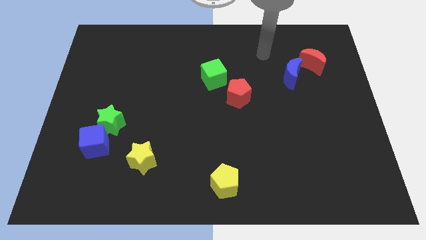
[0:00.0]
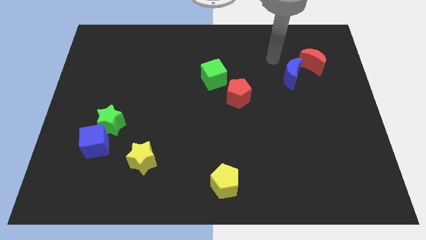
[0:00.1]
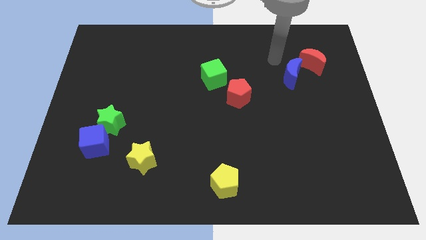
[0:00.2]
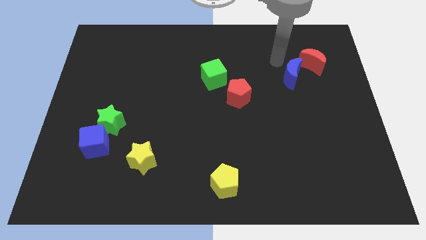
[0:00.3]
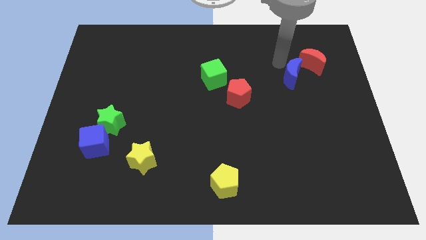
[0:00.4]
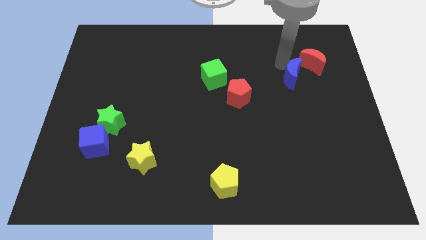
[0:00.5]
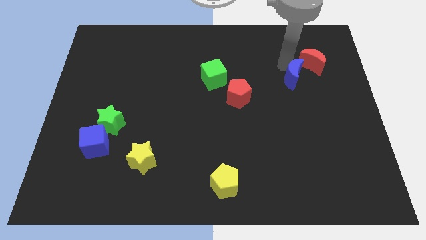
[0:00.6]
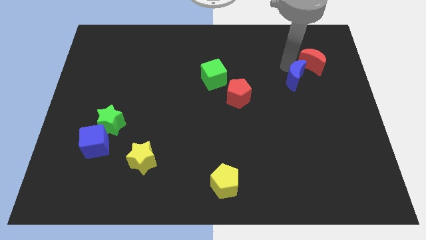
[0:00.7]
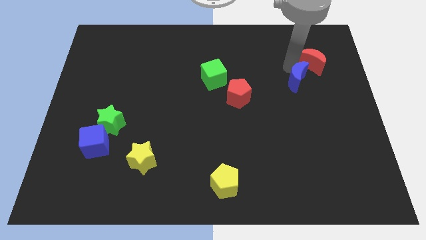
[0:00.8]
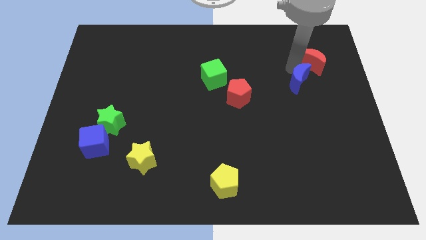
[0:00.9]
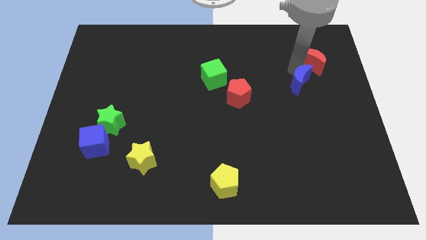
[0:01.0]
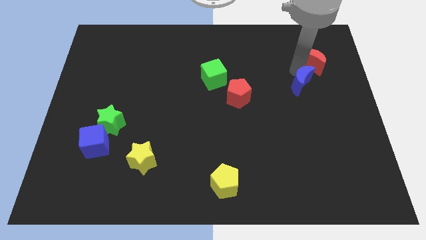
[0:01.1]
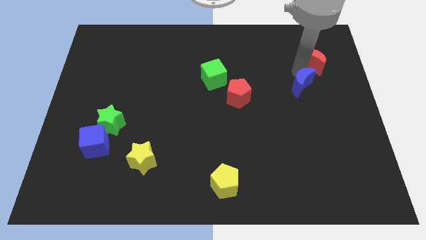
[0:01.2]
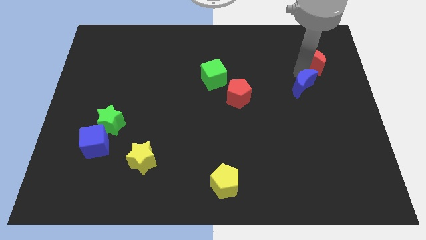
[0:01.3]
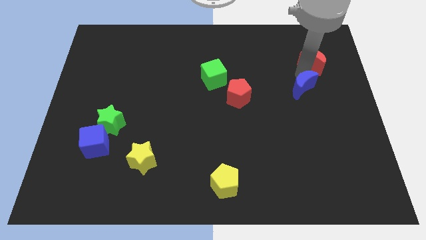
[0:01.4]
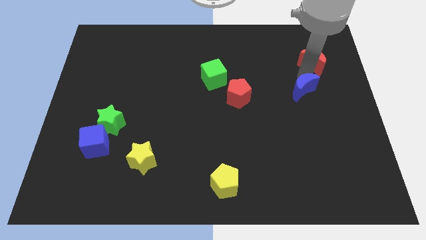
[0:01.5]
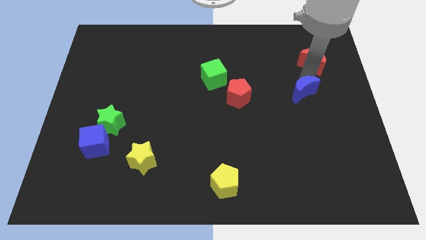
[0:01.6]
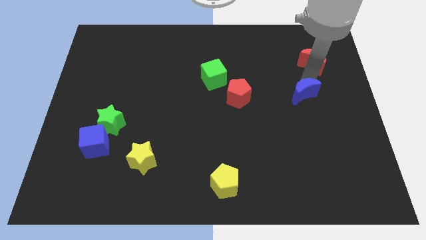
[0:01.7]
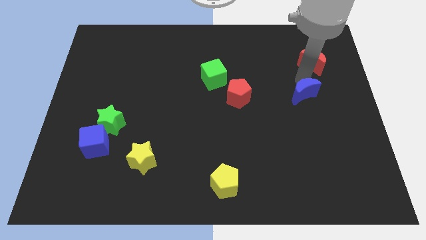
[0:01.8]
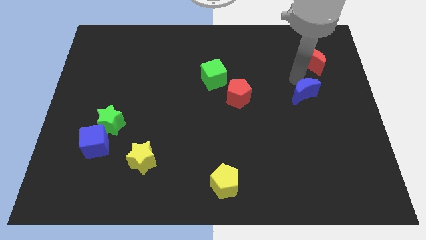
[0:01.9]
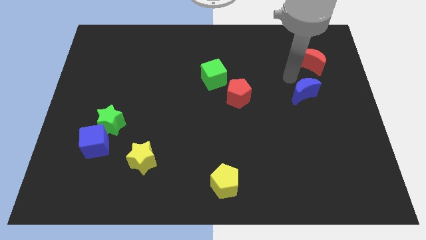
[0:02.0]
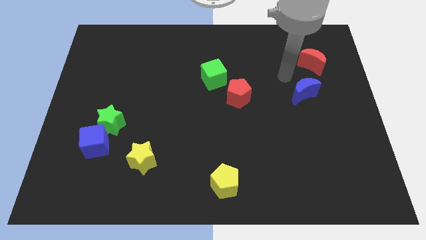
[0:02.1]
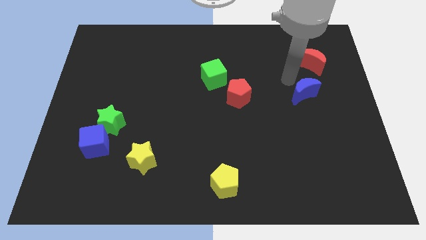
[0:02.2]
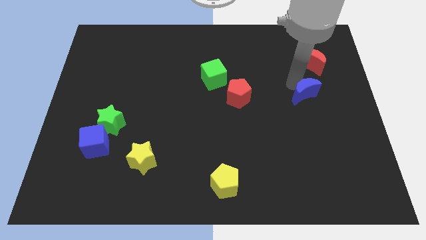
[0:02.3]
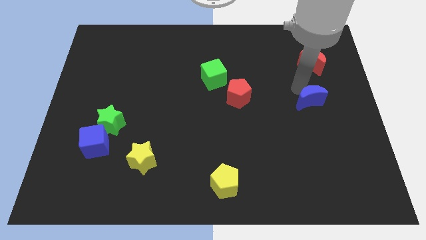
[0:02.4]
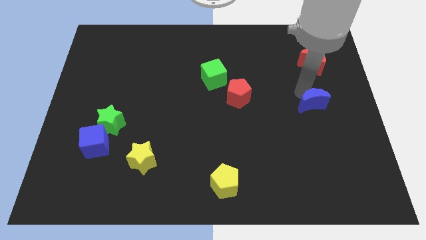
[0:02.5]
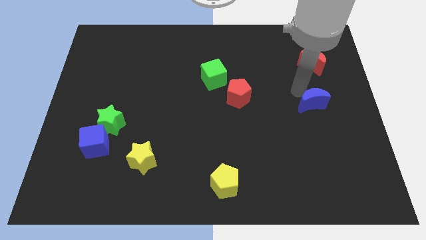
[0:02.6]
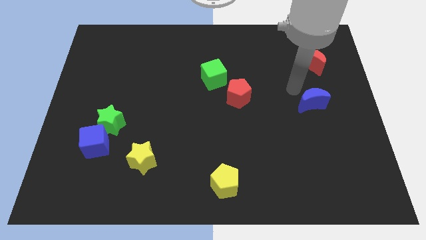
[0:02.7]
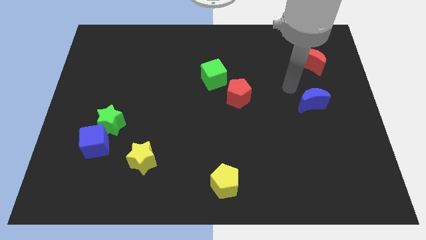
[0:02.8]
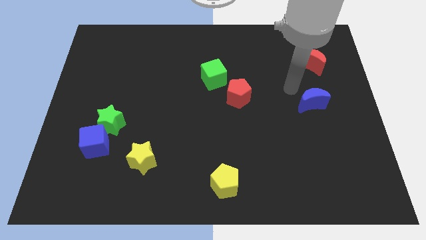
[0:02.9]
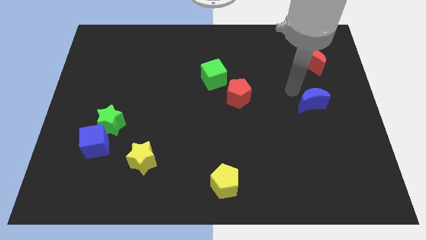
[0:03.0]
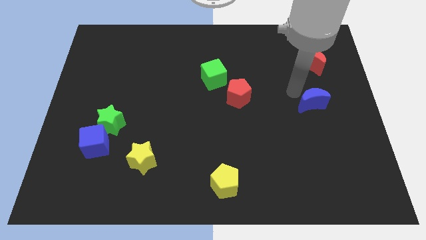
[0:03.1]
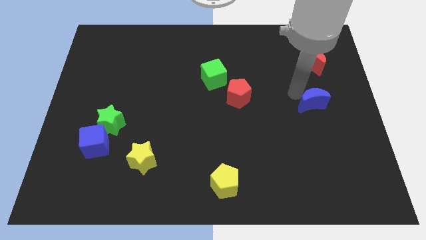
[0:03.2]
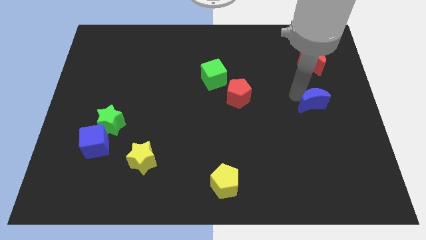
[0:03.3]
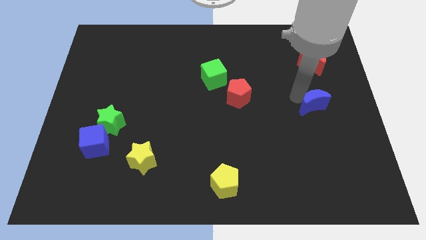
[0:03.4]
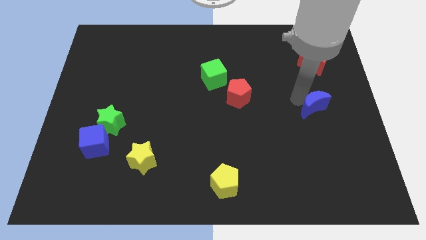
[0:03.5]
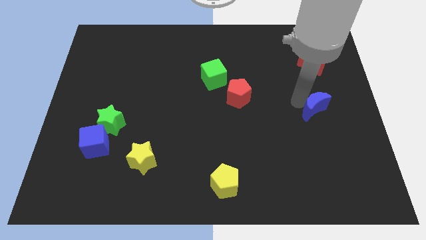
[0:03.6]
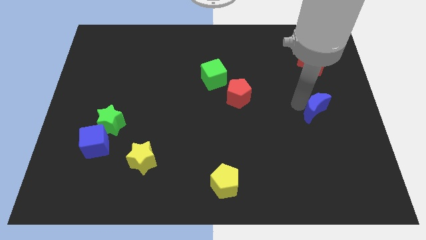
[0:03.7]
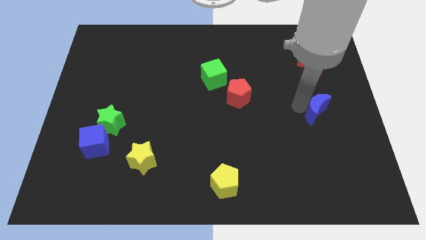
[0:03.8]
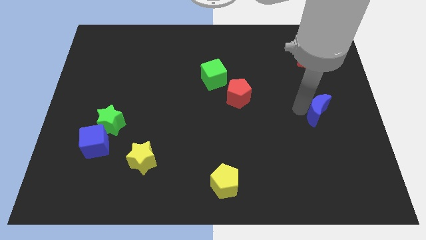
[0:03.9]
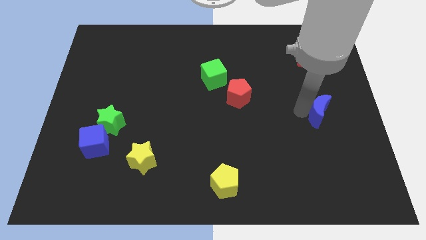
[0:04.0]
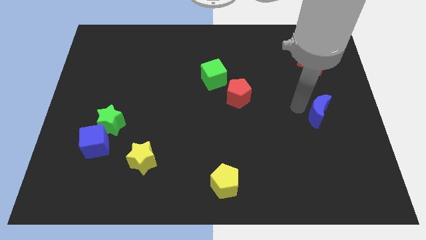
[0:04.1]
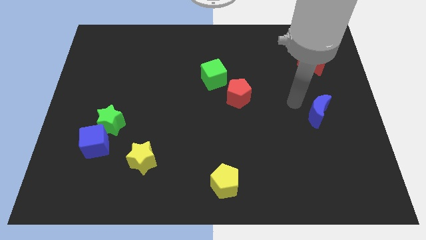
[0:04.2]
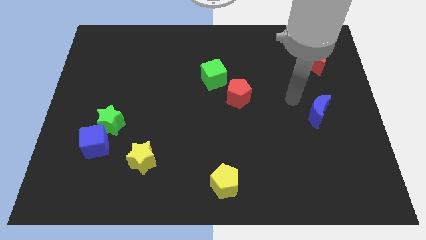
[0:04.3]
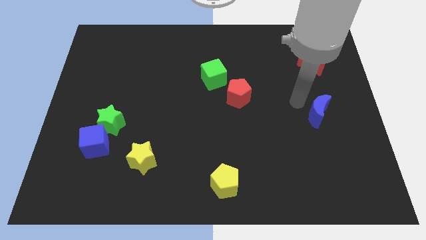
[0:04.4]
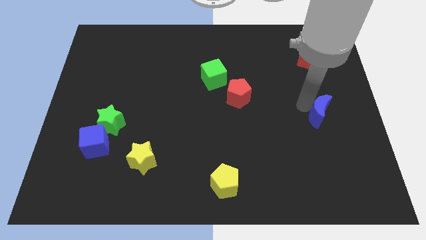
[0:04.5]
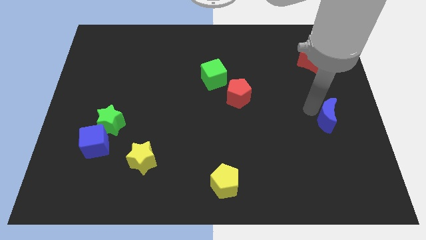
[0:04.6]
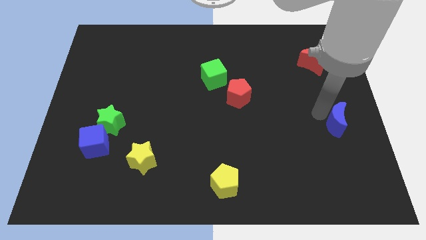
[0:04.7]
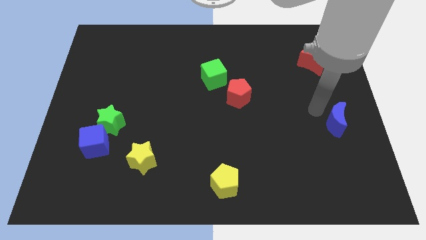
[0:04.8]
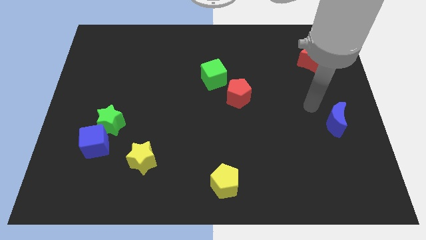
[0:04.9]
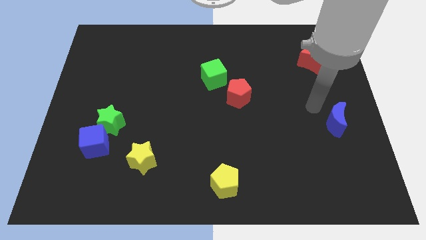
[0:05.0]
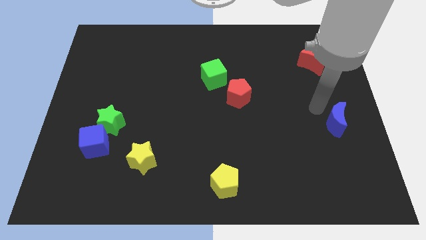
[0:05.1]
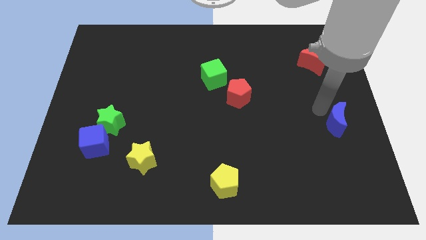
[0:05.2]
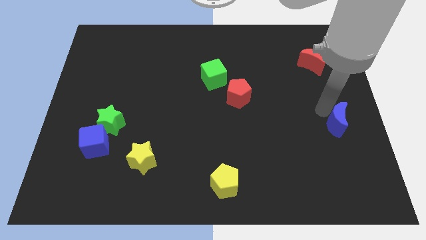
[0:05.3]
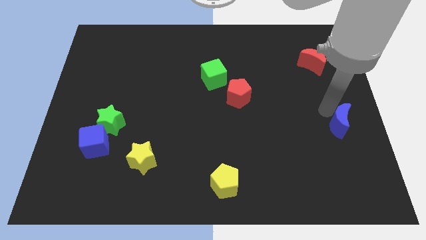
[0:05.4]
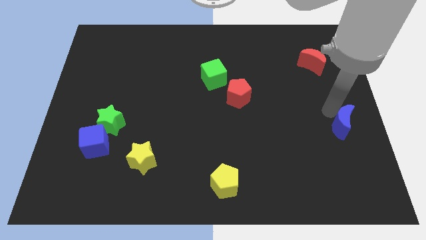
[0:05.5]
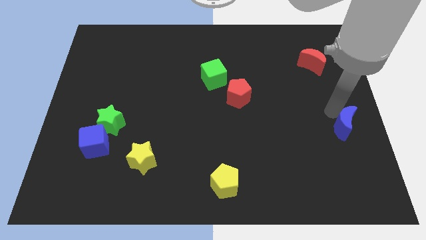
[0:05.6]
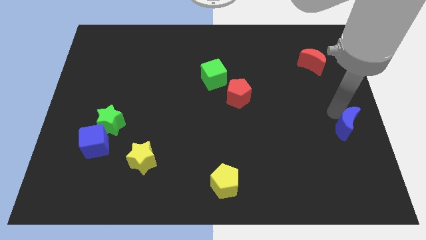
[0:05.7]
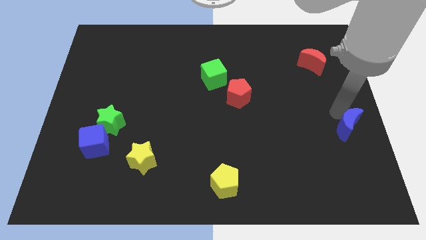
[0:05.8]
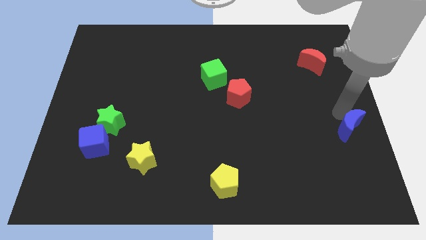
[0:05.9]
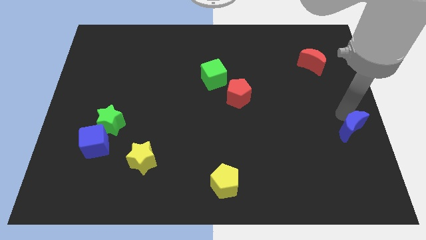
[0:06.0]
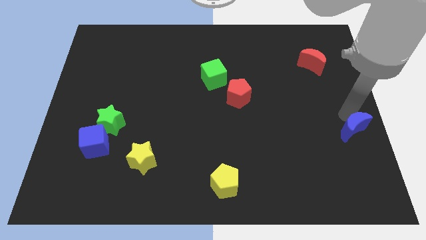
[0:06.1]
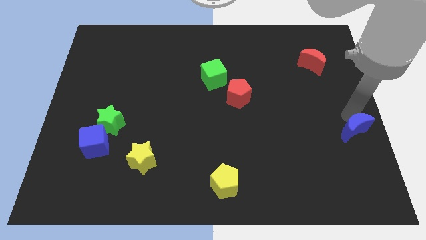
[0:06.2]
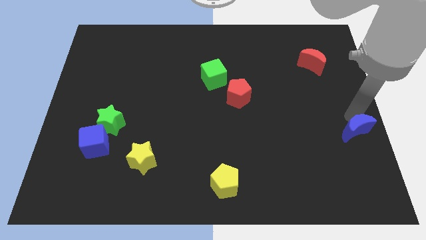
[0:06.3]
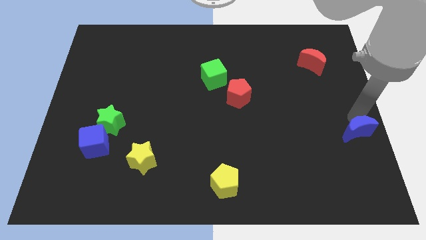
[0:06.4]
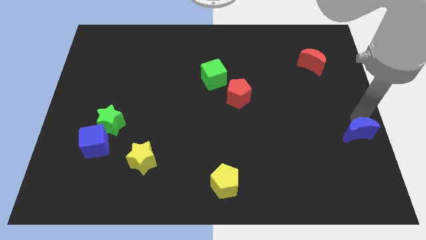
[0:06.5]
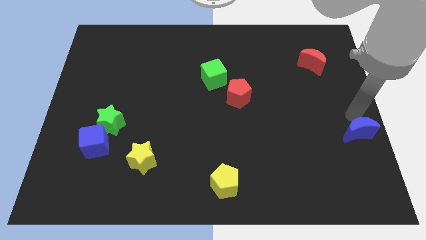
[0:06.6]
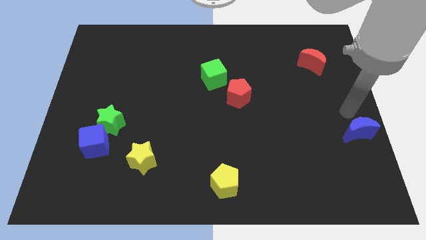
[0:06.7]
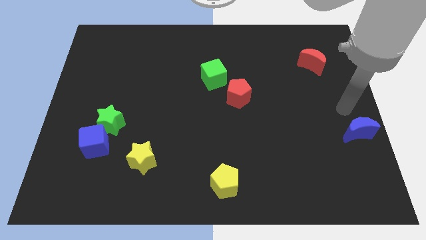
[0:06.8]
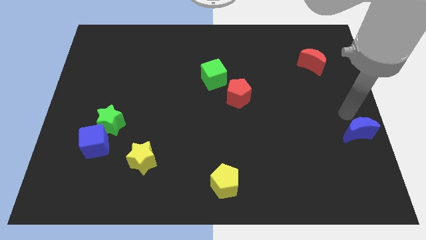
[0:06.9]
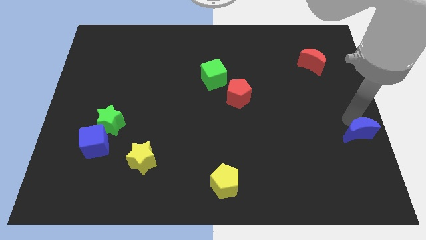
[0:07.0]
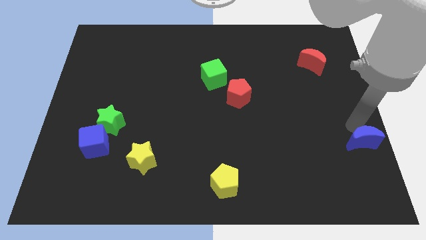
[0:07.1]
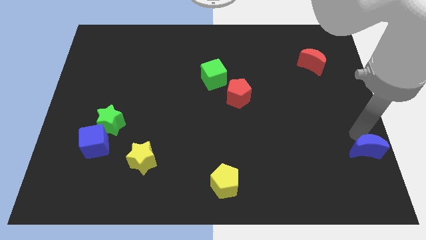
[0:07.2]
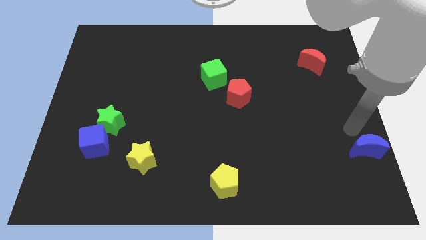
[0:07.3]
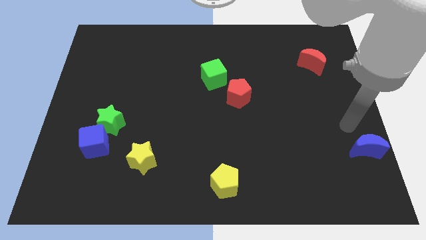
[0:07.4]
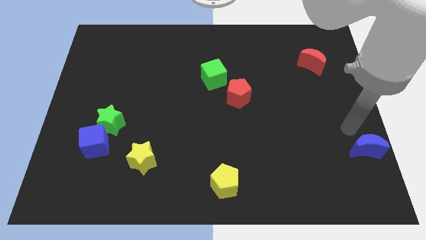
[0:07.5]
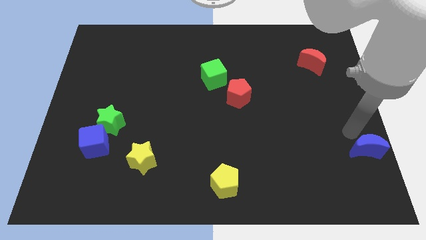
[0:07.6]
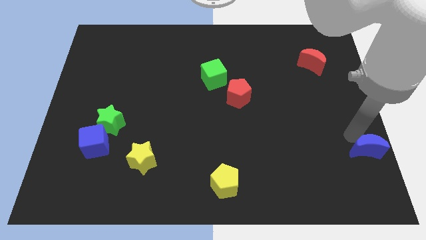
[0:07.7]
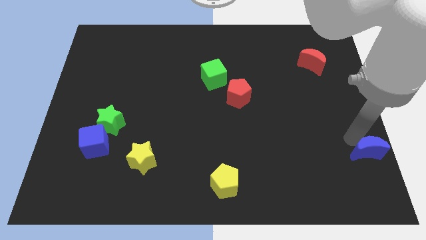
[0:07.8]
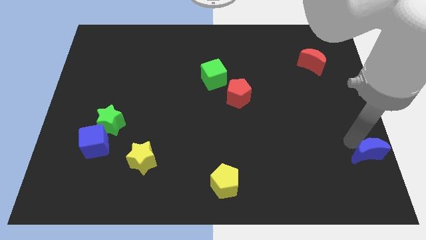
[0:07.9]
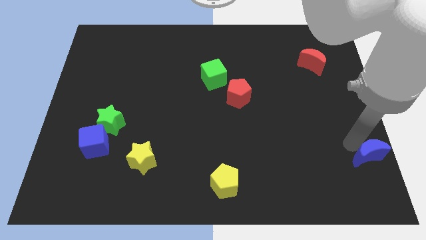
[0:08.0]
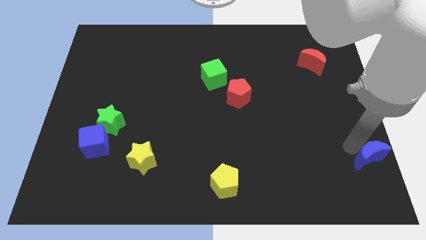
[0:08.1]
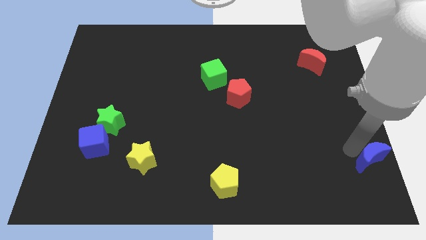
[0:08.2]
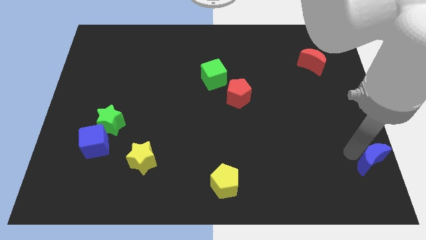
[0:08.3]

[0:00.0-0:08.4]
push the blue moon to the bottom right
